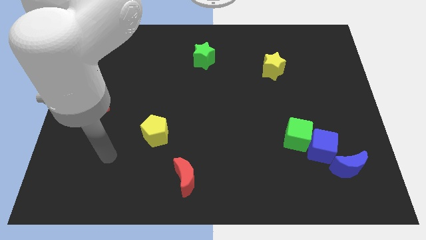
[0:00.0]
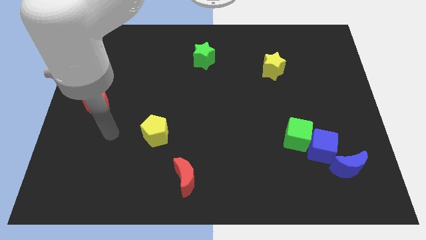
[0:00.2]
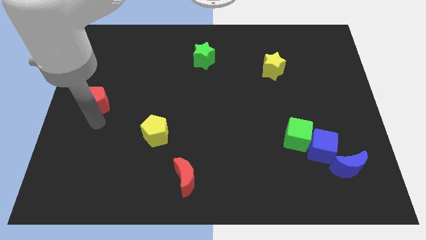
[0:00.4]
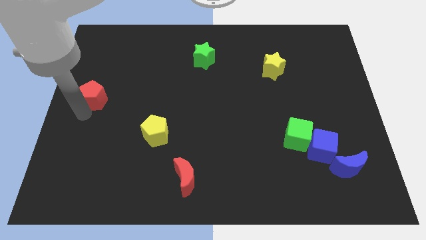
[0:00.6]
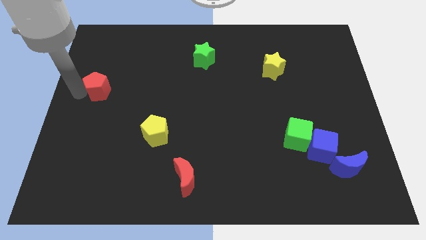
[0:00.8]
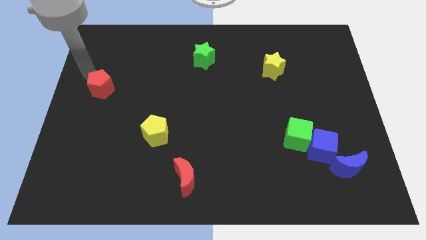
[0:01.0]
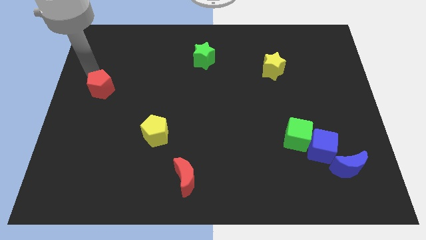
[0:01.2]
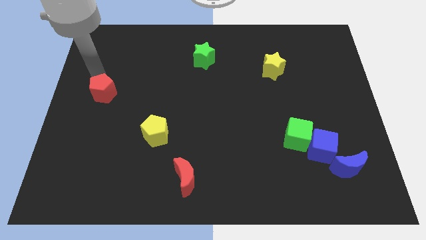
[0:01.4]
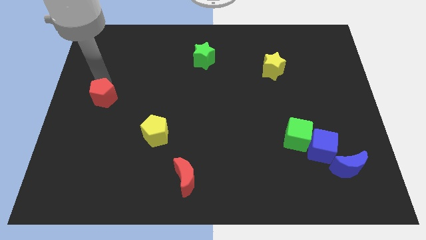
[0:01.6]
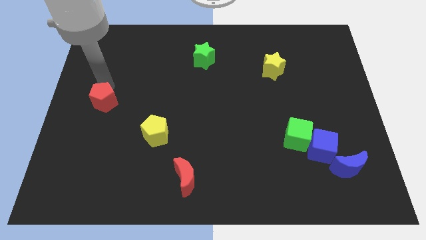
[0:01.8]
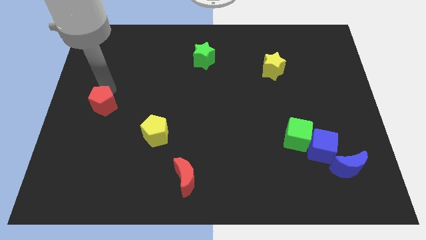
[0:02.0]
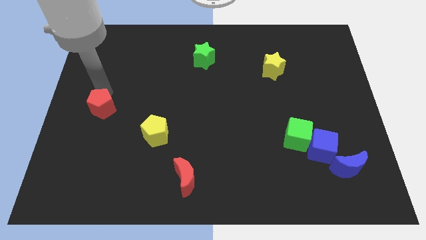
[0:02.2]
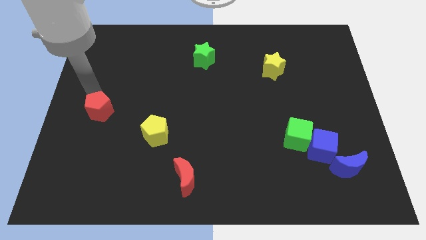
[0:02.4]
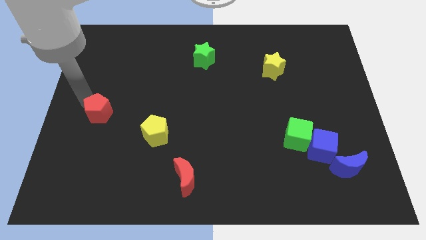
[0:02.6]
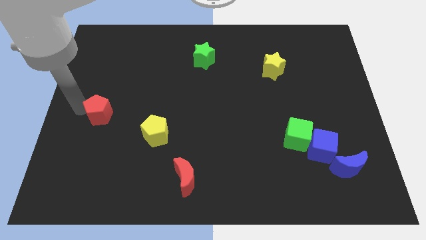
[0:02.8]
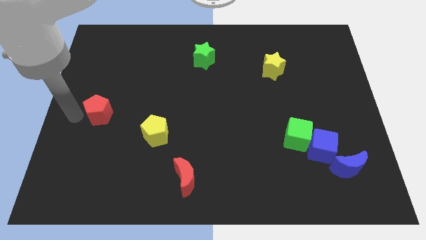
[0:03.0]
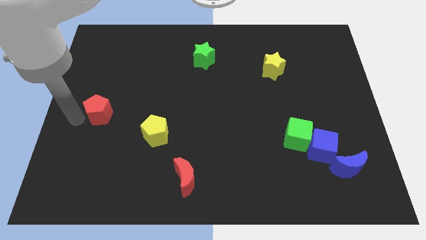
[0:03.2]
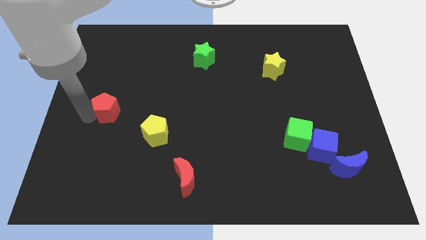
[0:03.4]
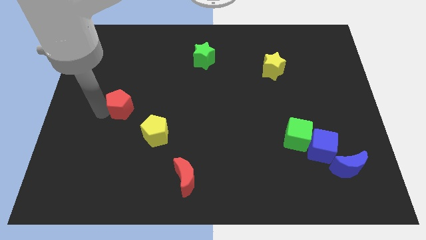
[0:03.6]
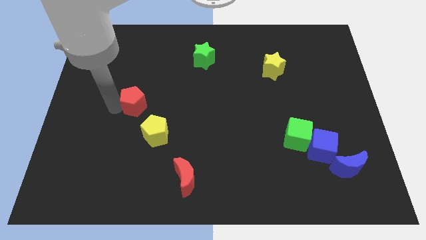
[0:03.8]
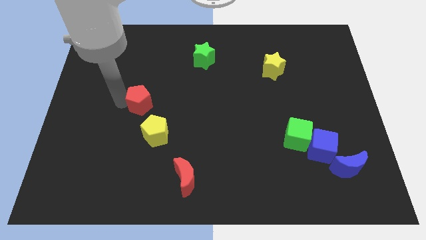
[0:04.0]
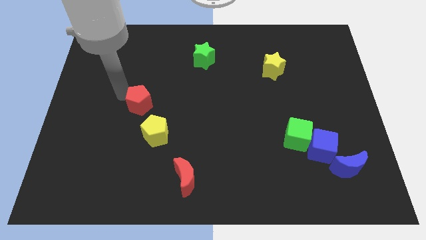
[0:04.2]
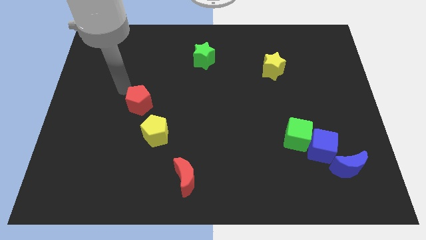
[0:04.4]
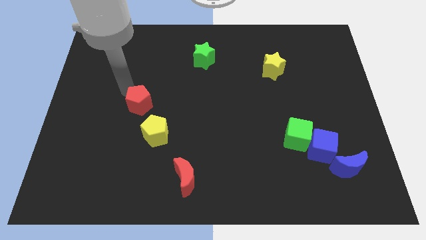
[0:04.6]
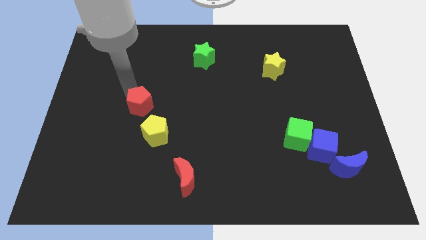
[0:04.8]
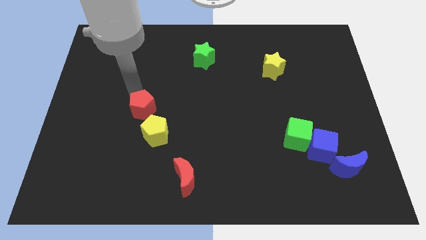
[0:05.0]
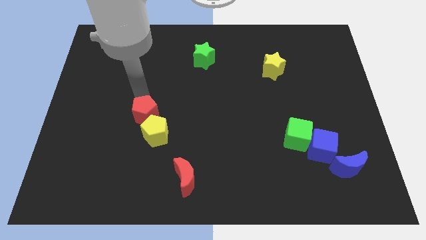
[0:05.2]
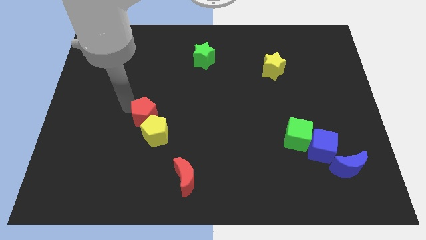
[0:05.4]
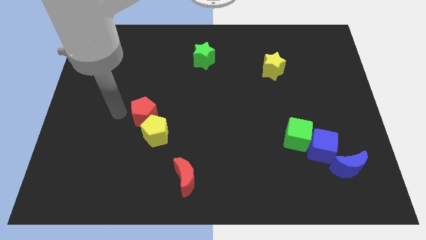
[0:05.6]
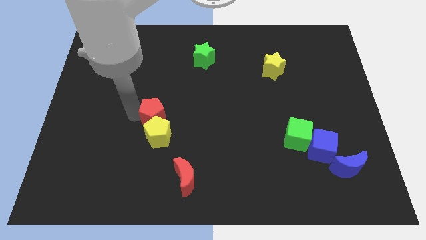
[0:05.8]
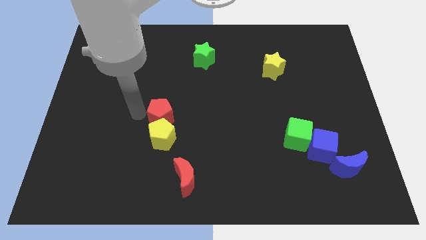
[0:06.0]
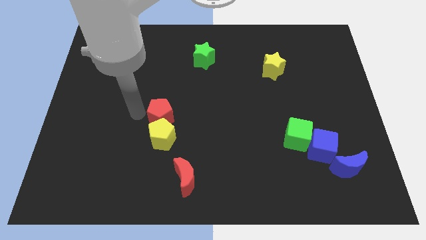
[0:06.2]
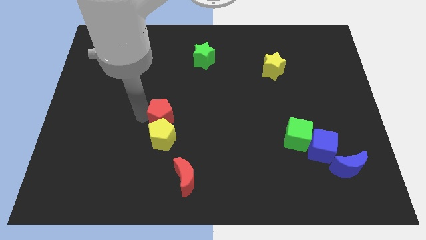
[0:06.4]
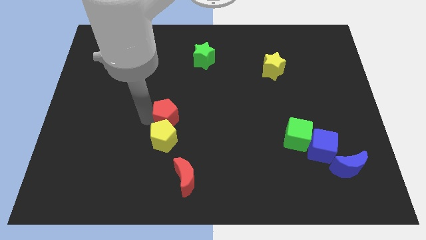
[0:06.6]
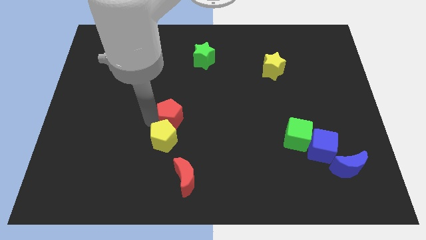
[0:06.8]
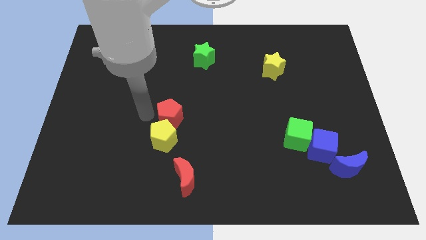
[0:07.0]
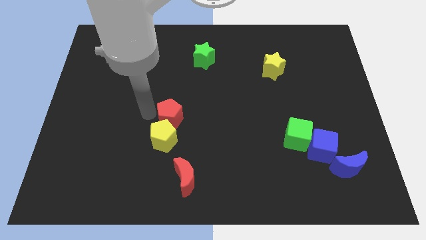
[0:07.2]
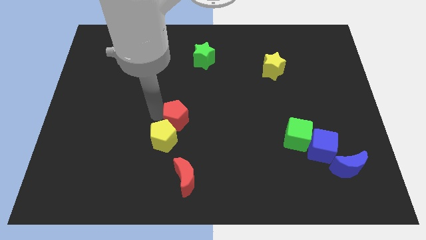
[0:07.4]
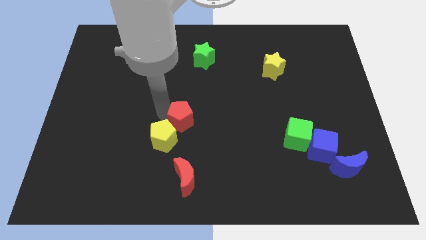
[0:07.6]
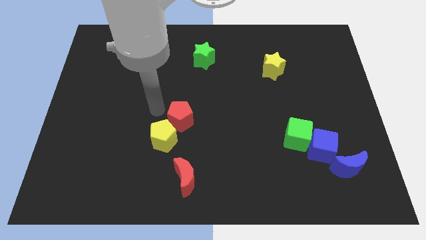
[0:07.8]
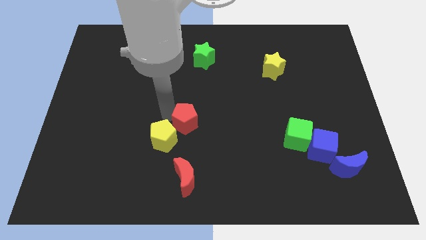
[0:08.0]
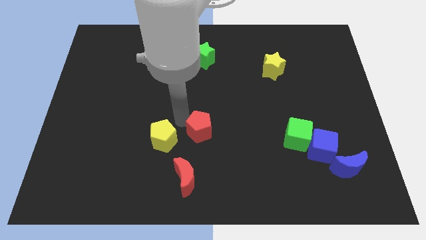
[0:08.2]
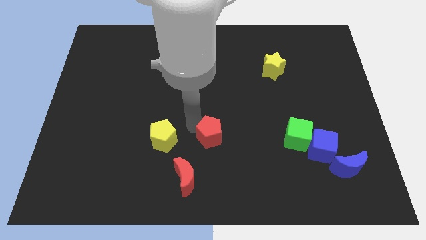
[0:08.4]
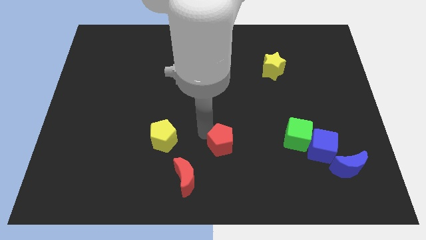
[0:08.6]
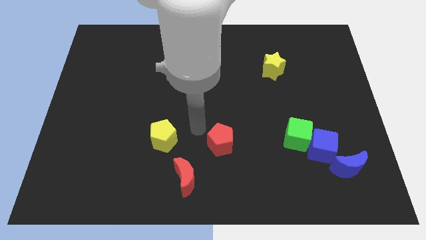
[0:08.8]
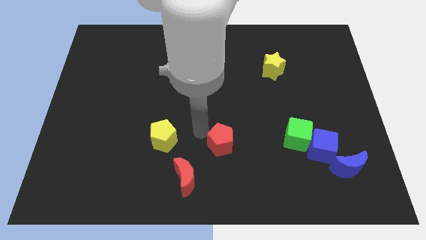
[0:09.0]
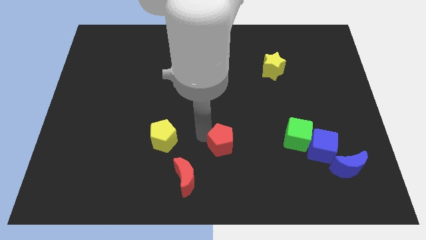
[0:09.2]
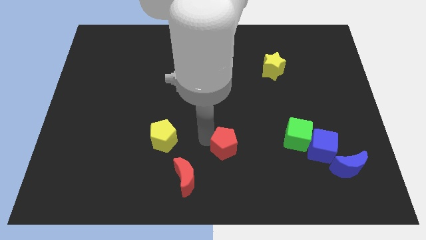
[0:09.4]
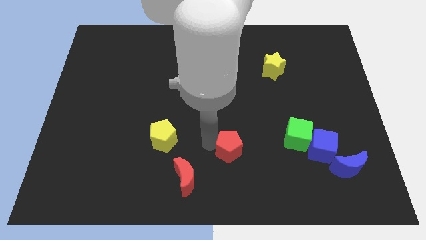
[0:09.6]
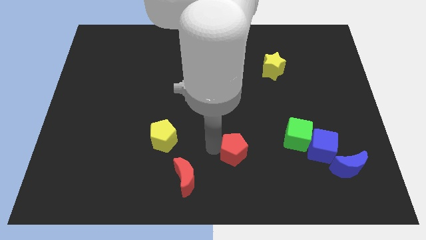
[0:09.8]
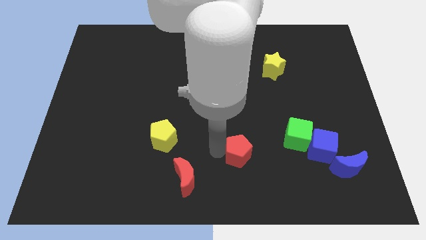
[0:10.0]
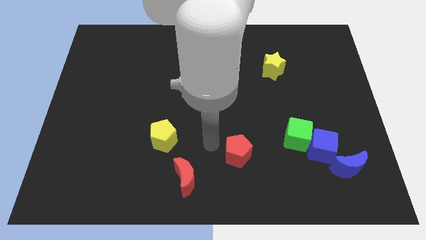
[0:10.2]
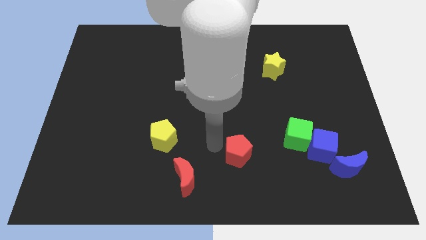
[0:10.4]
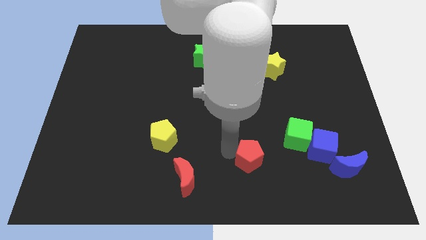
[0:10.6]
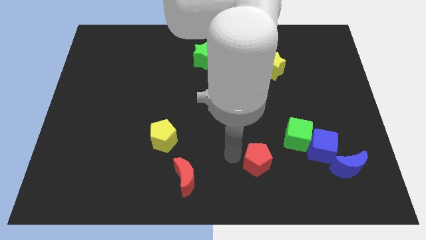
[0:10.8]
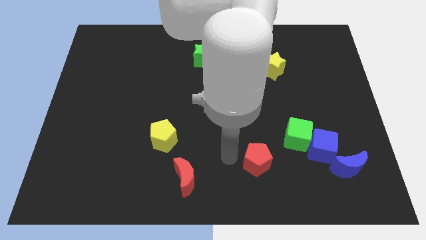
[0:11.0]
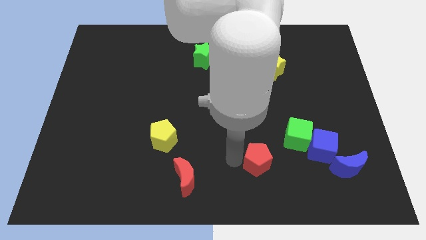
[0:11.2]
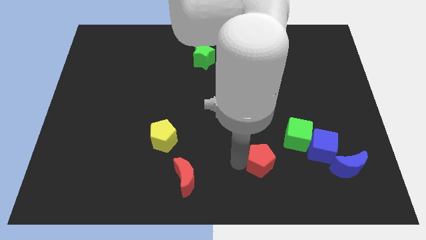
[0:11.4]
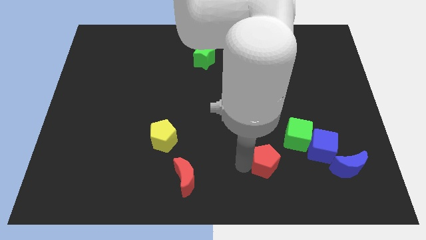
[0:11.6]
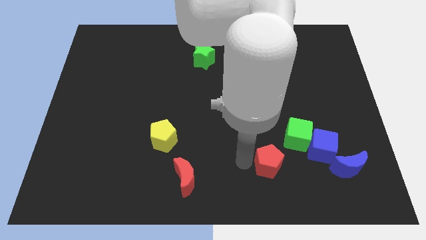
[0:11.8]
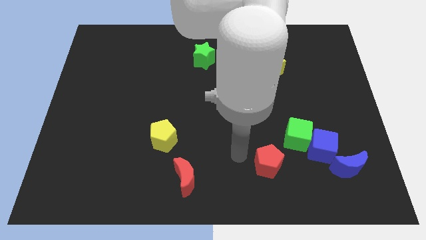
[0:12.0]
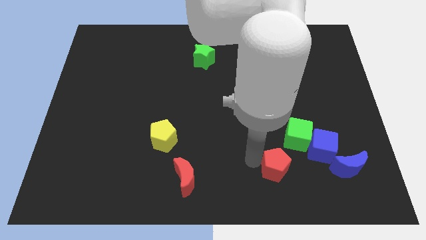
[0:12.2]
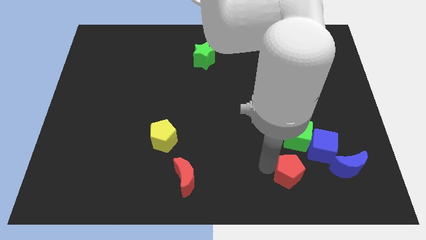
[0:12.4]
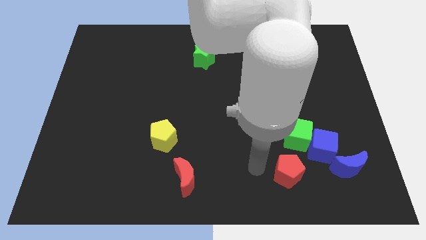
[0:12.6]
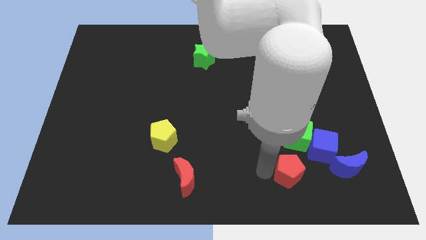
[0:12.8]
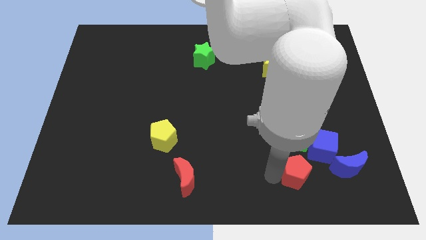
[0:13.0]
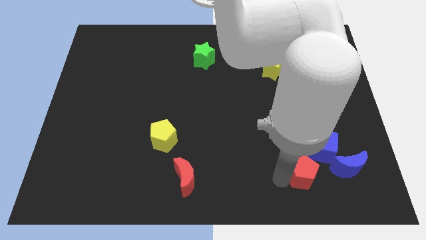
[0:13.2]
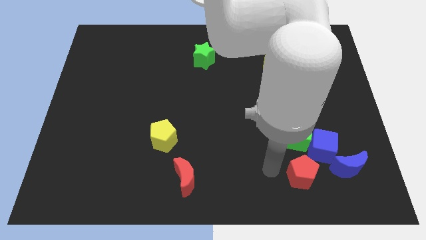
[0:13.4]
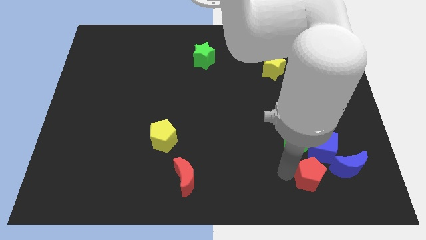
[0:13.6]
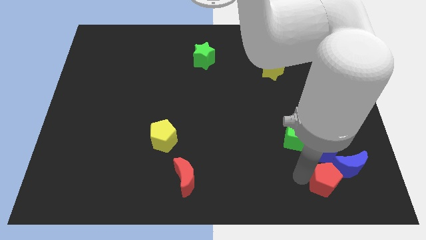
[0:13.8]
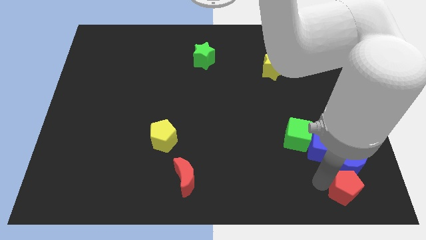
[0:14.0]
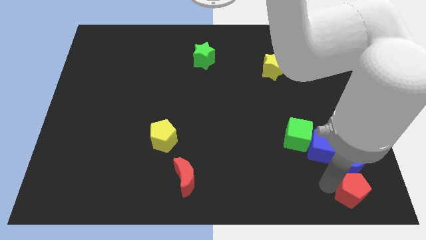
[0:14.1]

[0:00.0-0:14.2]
slide the red pentagon to the bottom right corner
